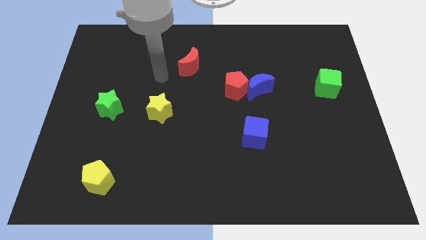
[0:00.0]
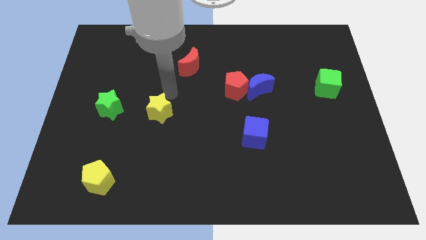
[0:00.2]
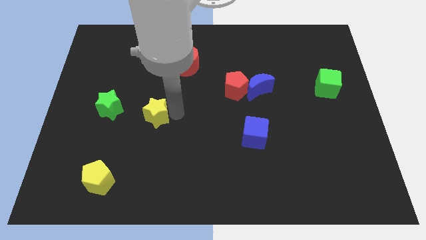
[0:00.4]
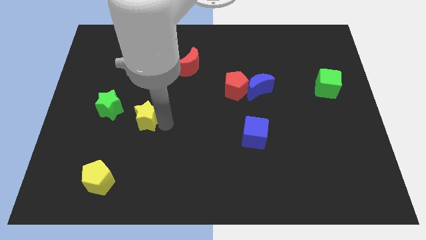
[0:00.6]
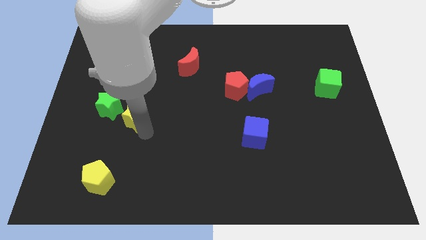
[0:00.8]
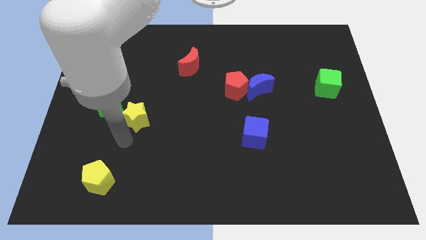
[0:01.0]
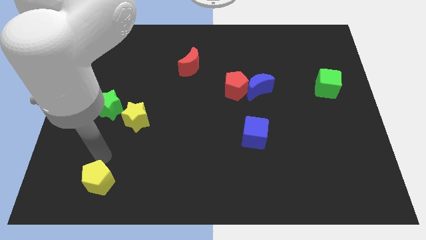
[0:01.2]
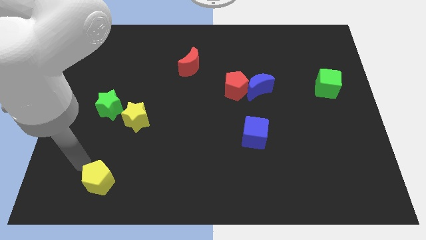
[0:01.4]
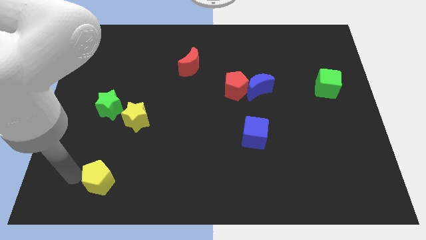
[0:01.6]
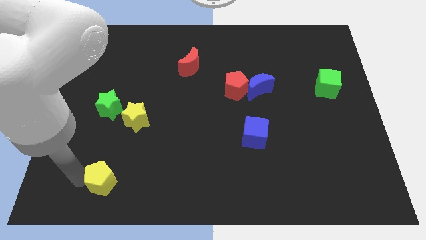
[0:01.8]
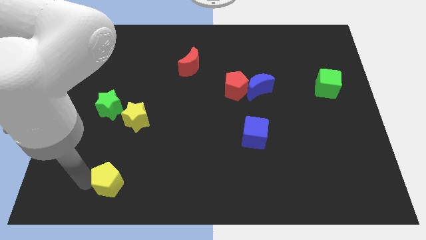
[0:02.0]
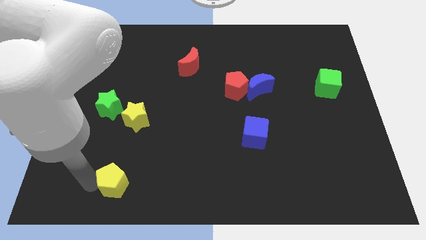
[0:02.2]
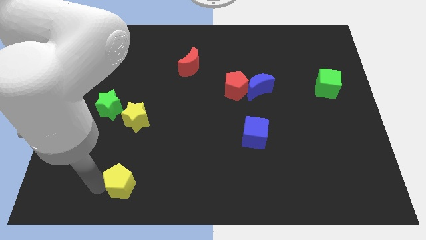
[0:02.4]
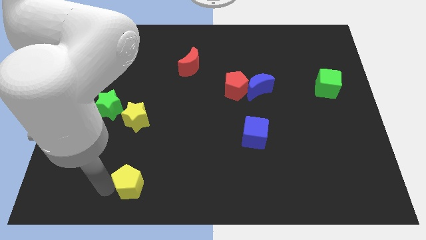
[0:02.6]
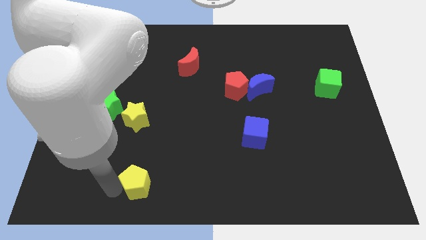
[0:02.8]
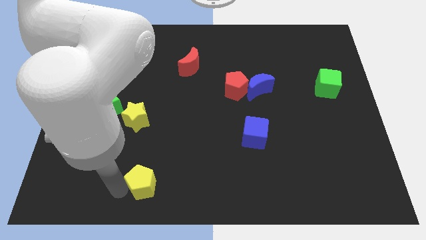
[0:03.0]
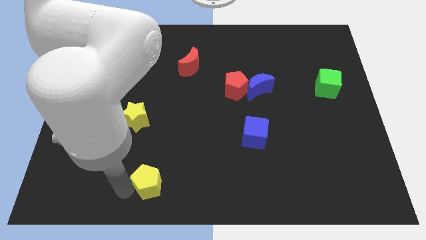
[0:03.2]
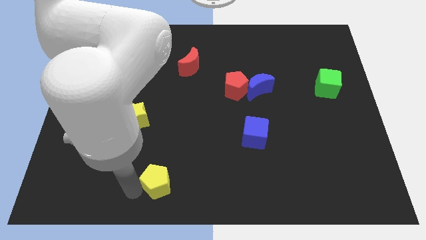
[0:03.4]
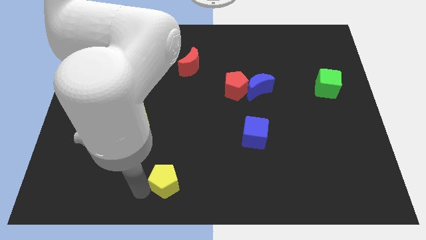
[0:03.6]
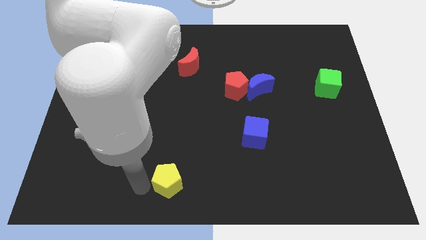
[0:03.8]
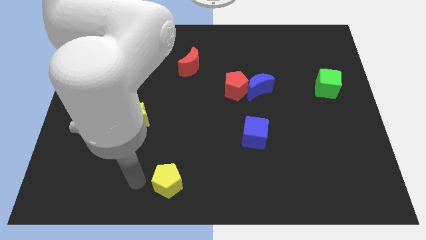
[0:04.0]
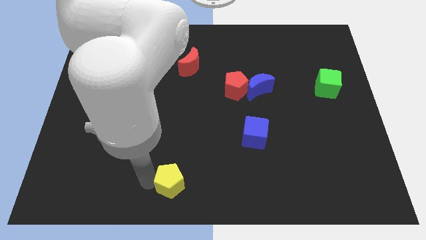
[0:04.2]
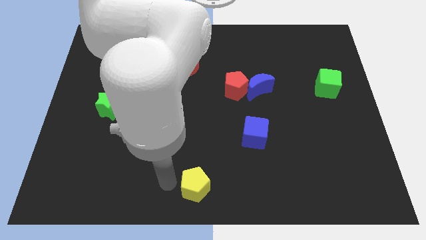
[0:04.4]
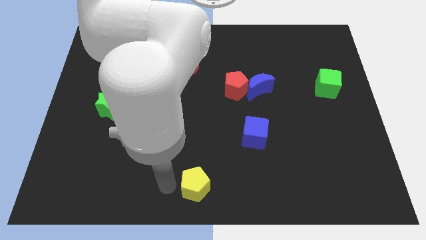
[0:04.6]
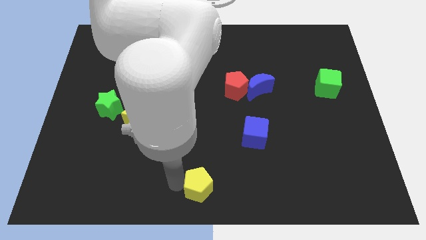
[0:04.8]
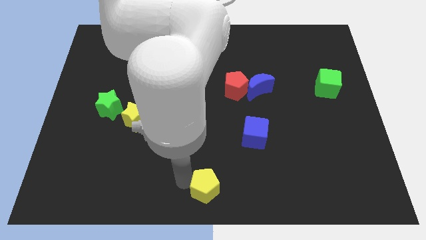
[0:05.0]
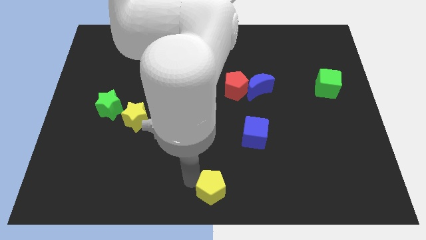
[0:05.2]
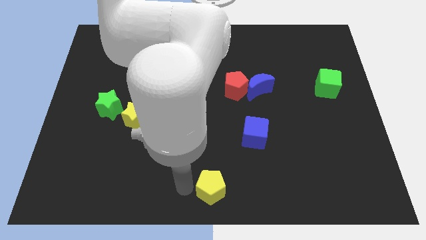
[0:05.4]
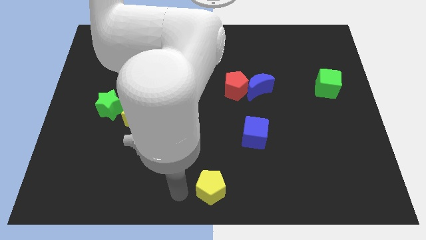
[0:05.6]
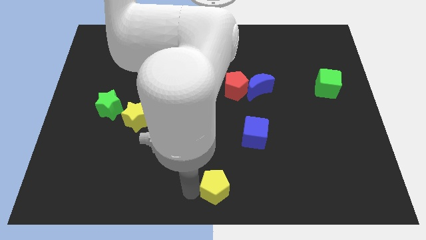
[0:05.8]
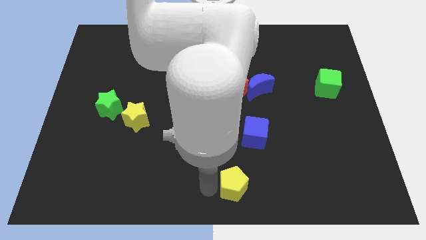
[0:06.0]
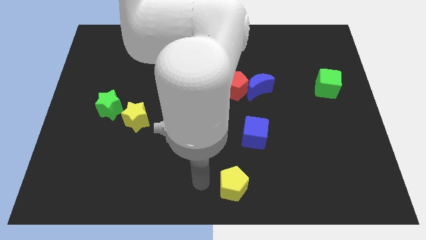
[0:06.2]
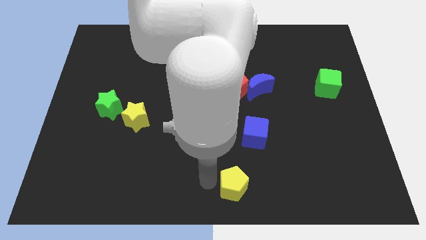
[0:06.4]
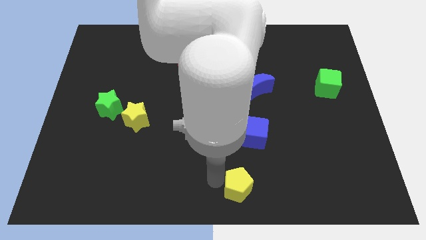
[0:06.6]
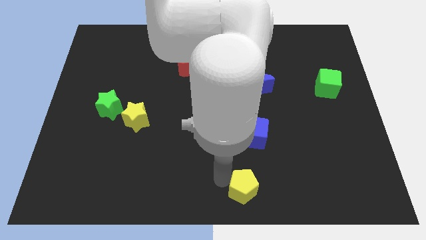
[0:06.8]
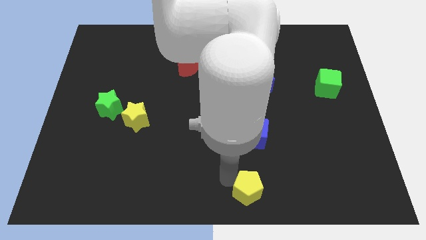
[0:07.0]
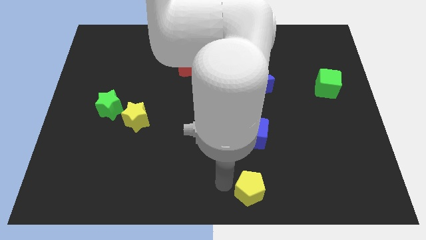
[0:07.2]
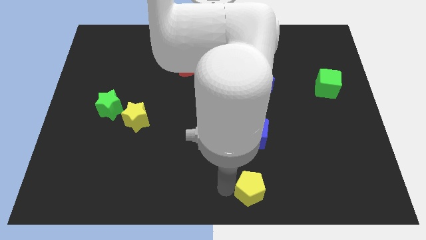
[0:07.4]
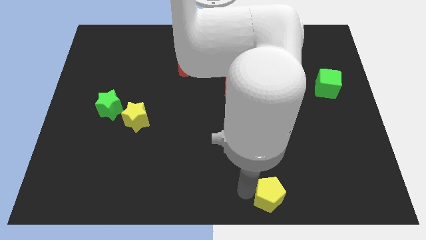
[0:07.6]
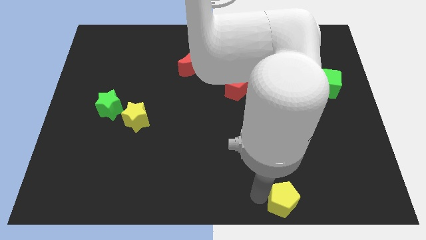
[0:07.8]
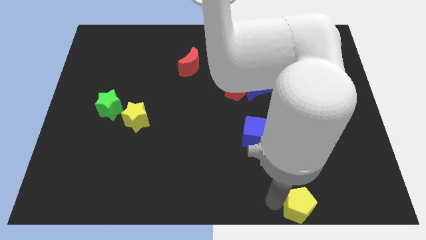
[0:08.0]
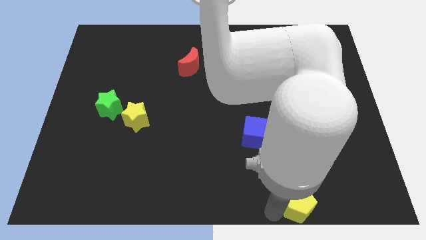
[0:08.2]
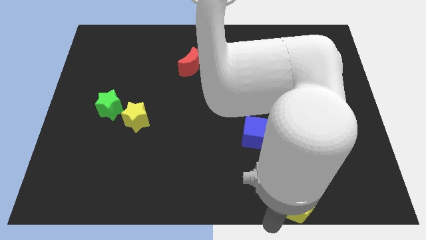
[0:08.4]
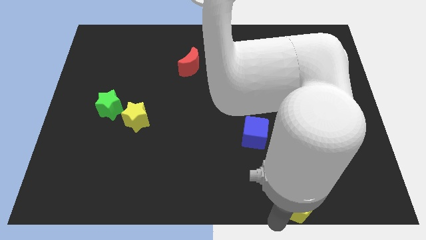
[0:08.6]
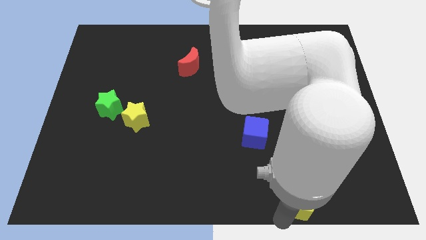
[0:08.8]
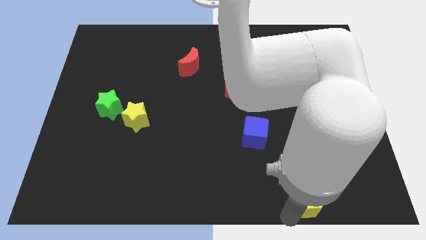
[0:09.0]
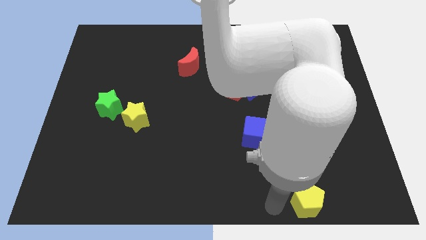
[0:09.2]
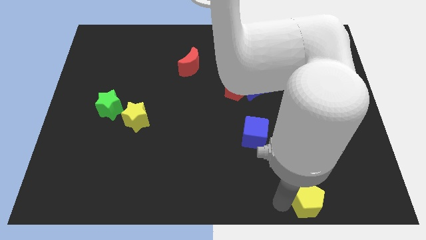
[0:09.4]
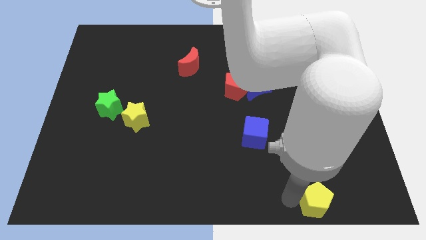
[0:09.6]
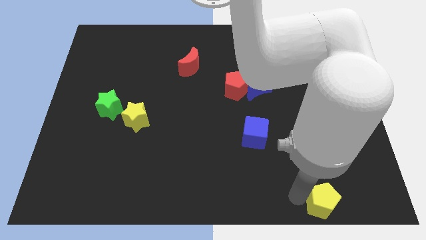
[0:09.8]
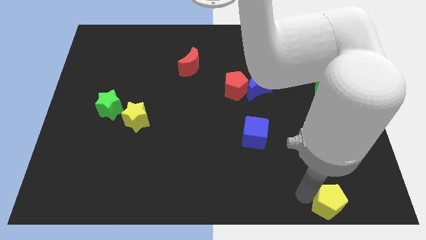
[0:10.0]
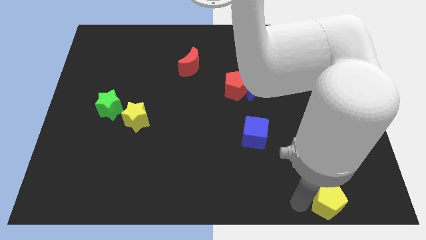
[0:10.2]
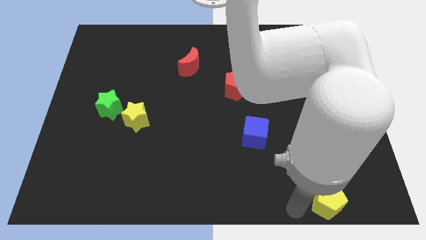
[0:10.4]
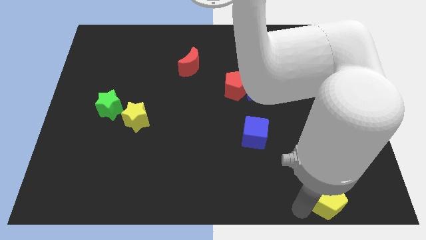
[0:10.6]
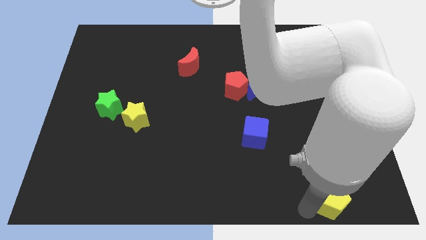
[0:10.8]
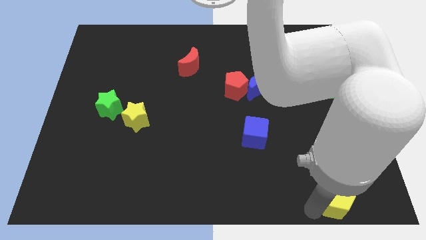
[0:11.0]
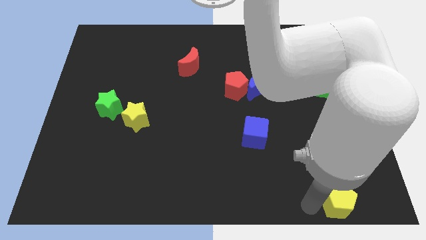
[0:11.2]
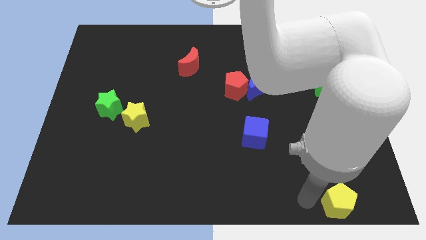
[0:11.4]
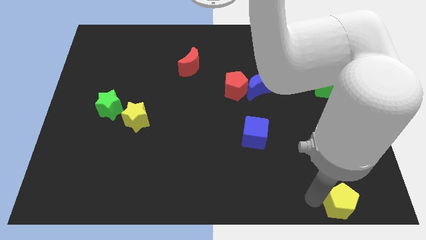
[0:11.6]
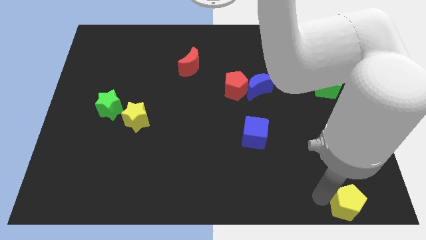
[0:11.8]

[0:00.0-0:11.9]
put the yellow pentagon to the bottom right

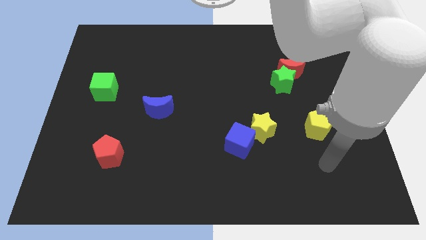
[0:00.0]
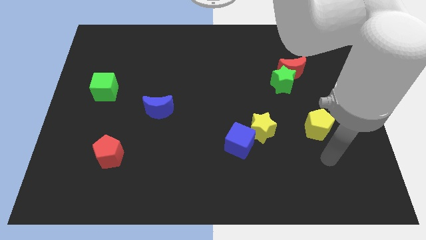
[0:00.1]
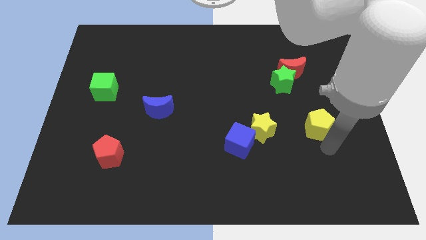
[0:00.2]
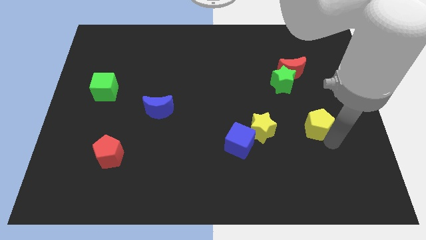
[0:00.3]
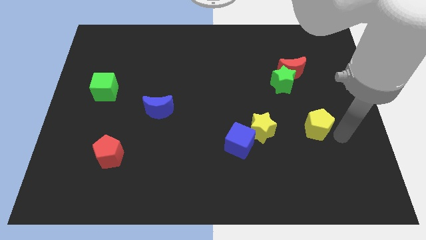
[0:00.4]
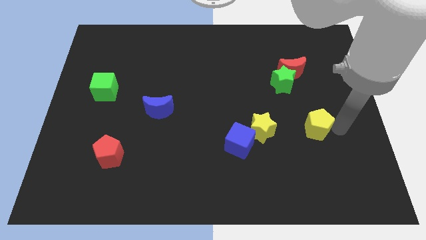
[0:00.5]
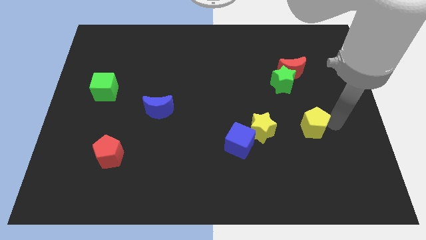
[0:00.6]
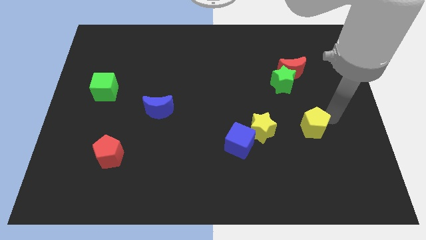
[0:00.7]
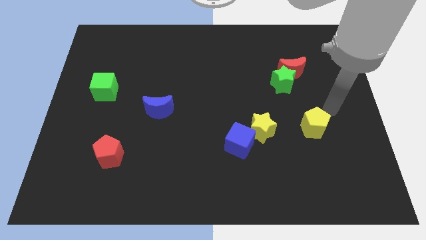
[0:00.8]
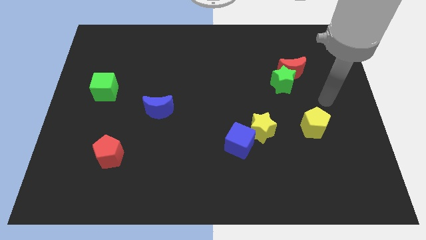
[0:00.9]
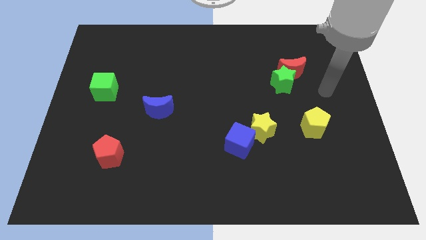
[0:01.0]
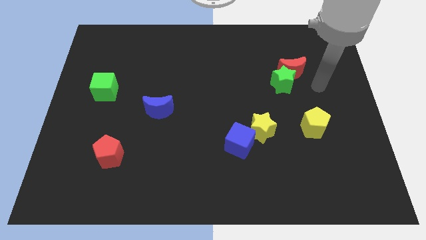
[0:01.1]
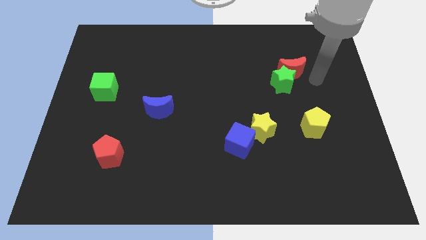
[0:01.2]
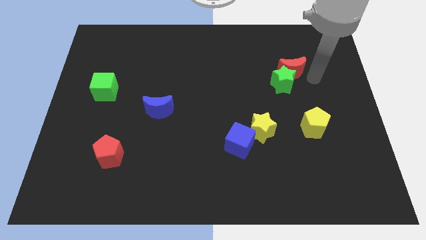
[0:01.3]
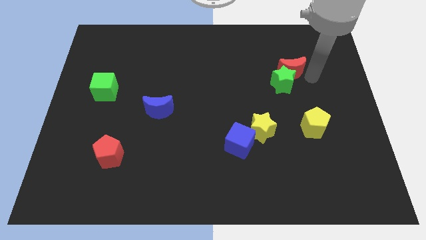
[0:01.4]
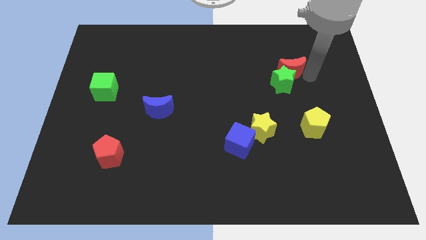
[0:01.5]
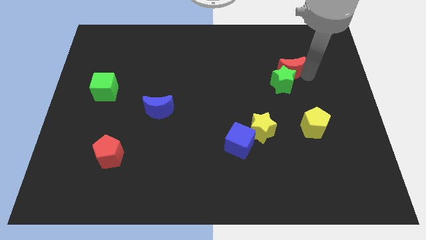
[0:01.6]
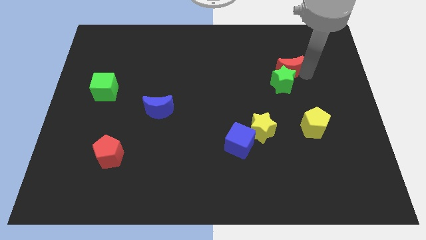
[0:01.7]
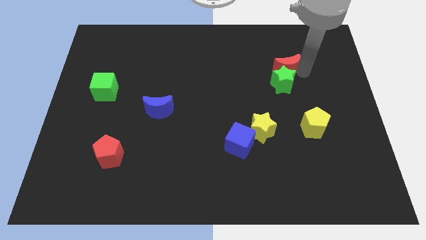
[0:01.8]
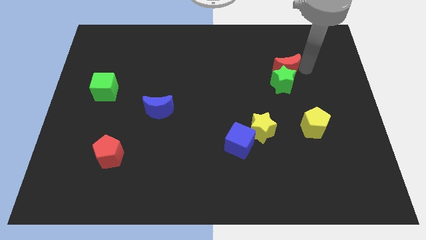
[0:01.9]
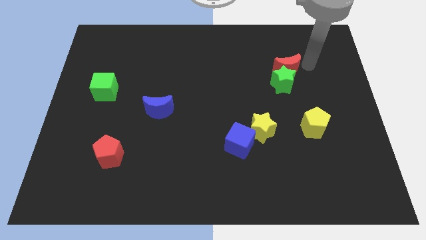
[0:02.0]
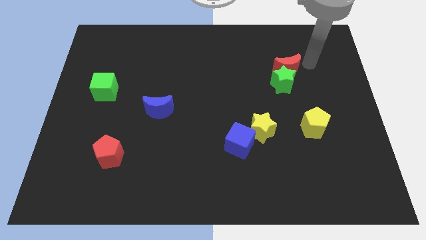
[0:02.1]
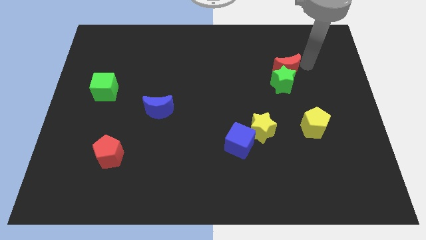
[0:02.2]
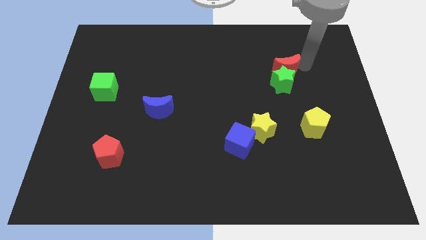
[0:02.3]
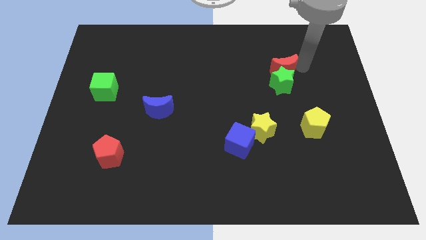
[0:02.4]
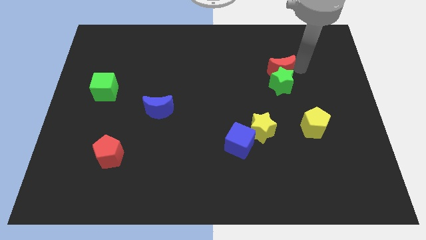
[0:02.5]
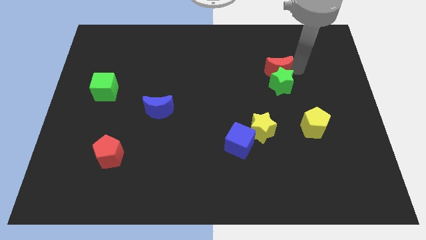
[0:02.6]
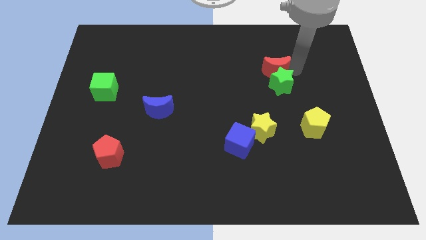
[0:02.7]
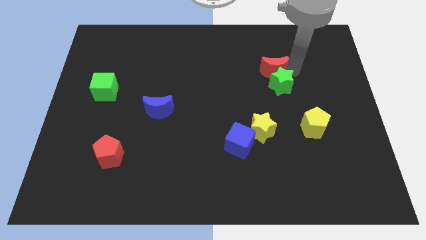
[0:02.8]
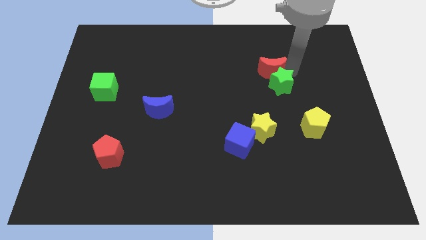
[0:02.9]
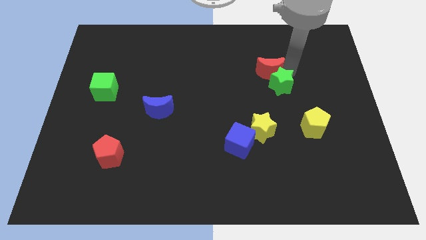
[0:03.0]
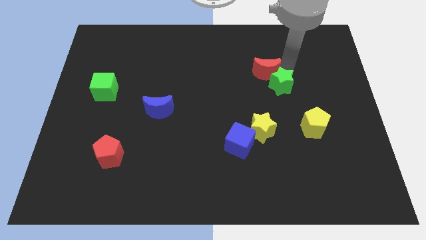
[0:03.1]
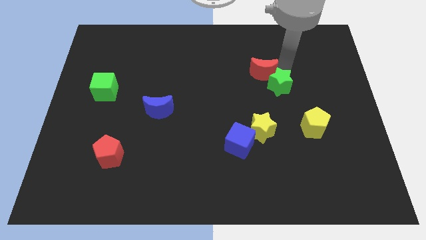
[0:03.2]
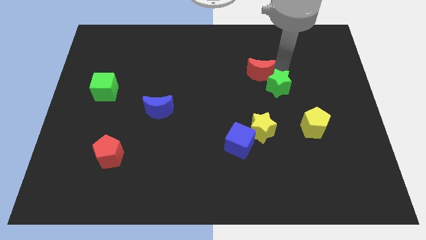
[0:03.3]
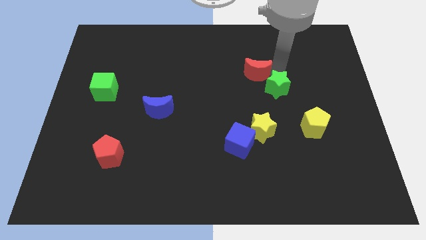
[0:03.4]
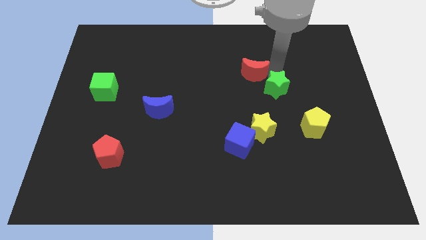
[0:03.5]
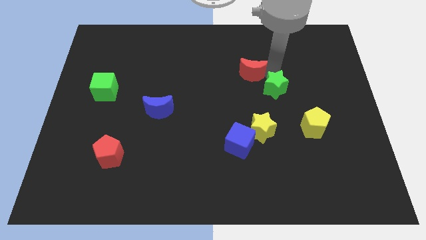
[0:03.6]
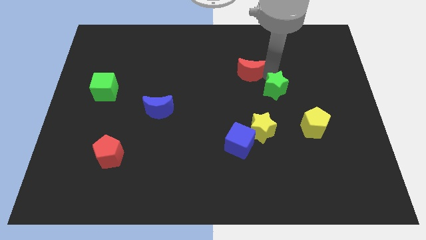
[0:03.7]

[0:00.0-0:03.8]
put the red moon to the middle
